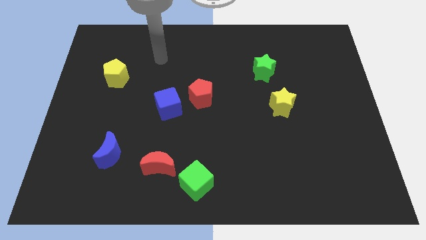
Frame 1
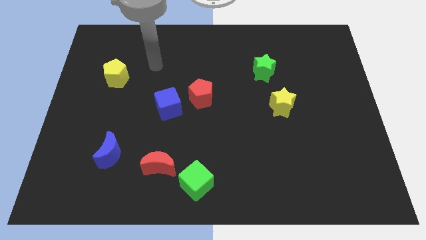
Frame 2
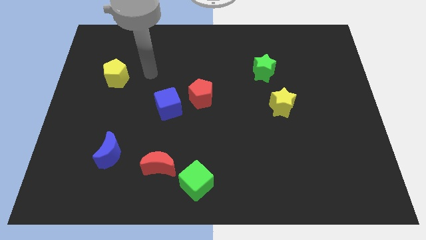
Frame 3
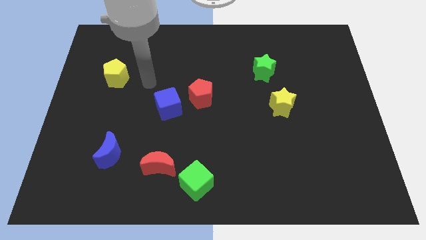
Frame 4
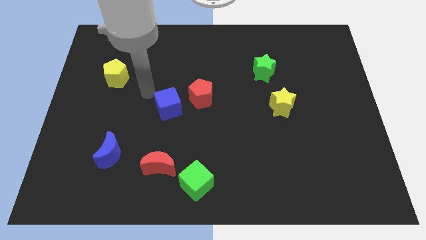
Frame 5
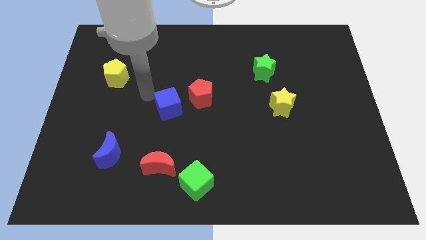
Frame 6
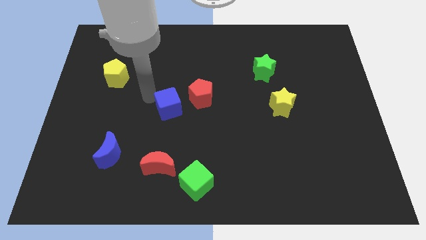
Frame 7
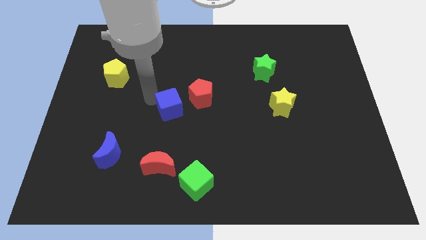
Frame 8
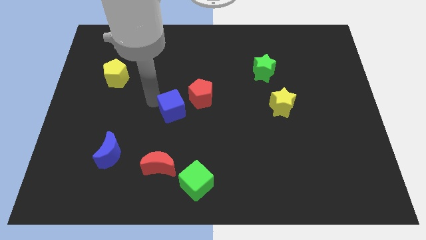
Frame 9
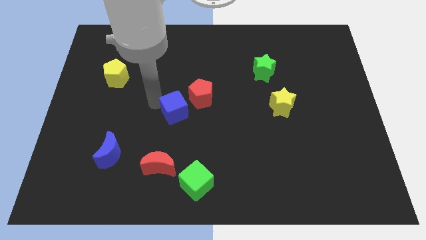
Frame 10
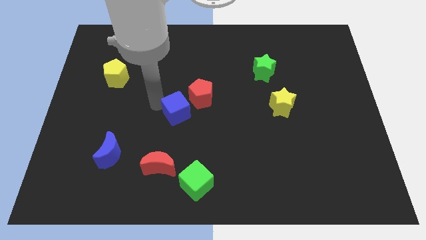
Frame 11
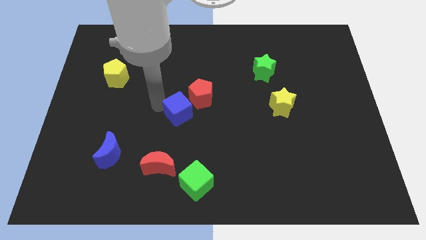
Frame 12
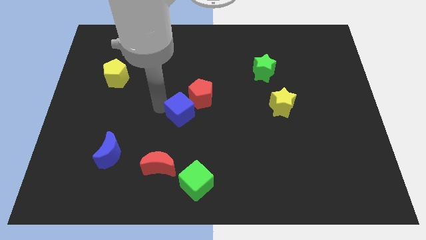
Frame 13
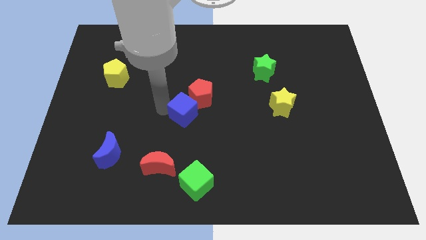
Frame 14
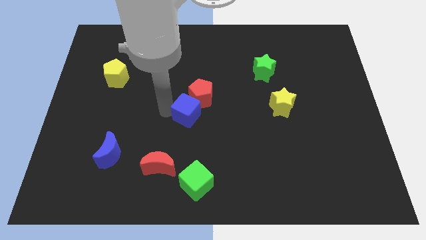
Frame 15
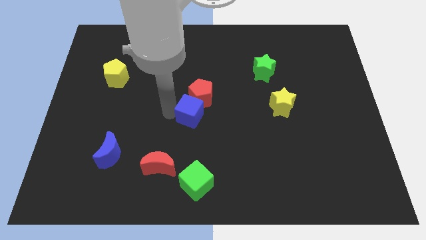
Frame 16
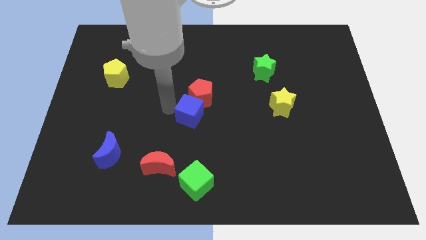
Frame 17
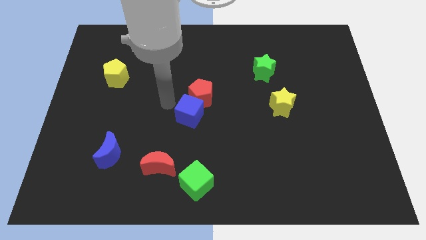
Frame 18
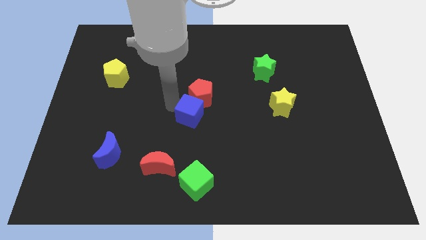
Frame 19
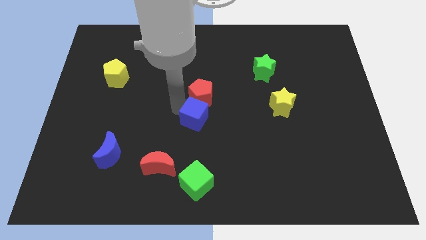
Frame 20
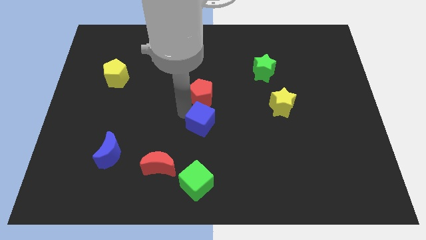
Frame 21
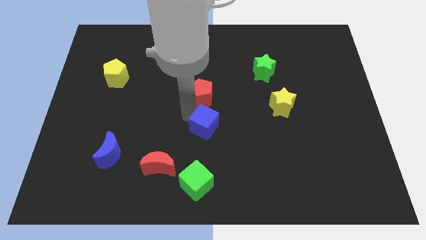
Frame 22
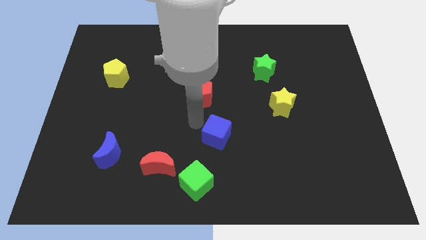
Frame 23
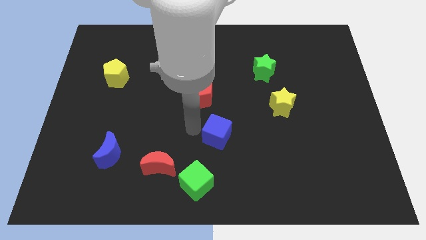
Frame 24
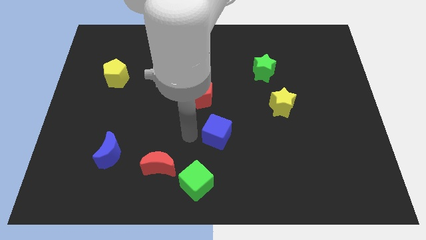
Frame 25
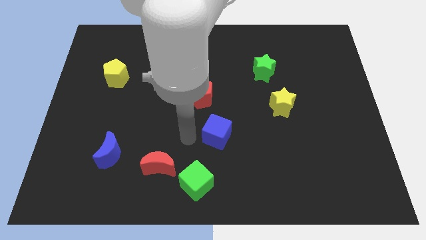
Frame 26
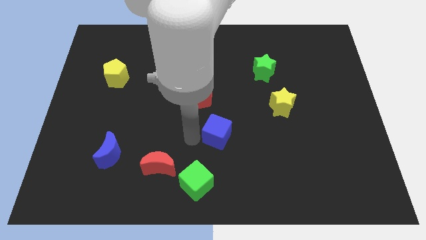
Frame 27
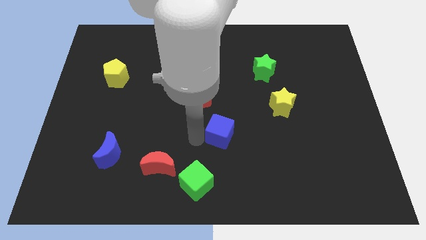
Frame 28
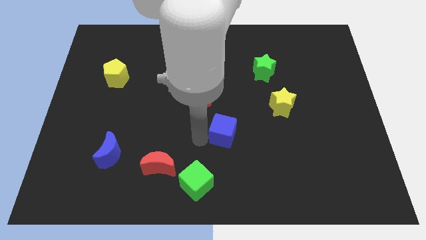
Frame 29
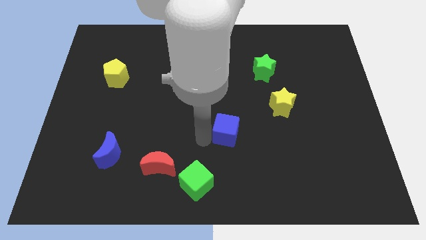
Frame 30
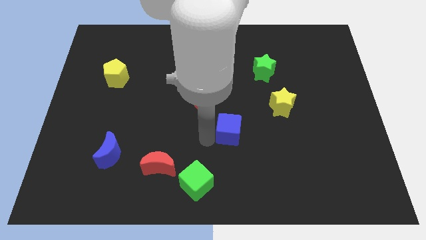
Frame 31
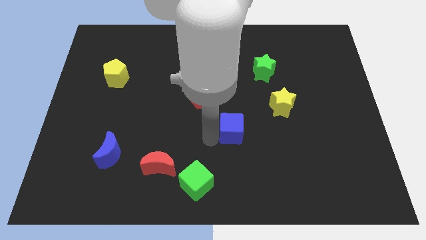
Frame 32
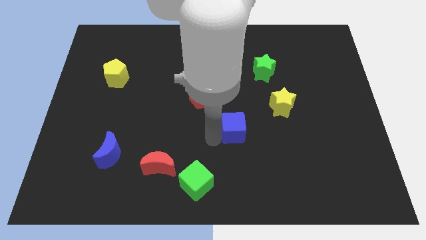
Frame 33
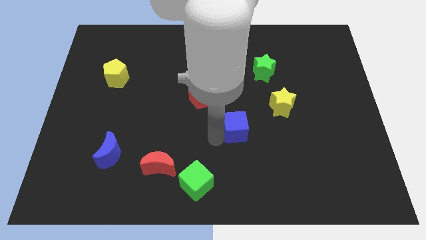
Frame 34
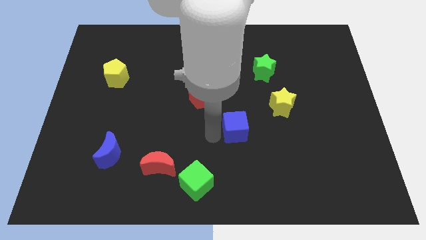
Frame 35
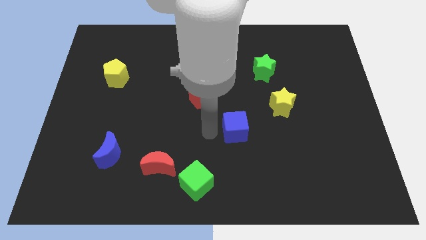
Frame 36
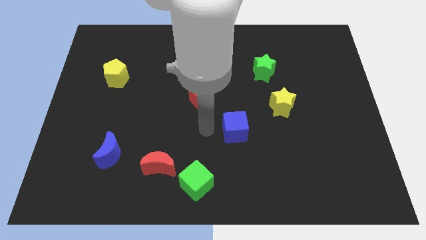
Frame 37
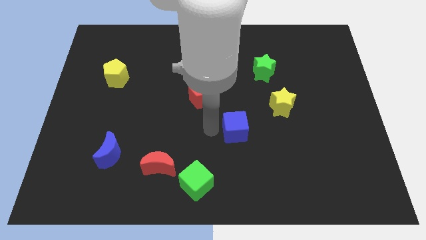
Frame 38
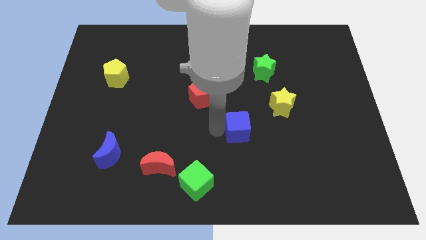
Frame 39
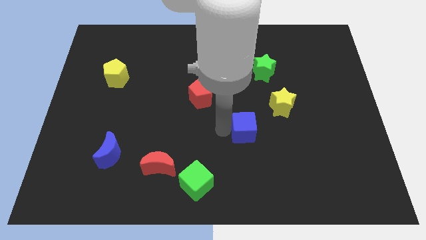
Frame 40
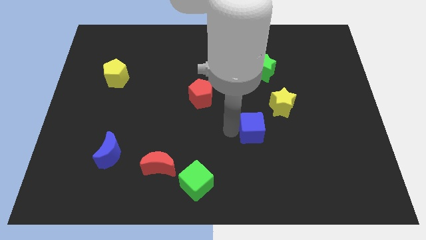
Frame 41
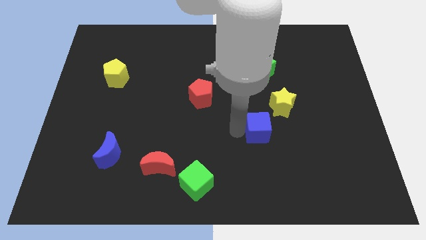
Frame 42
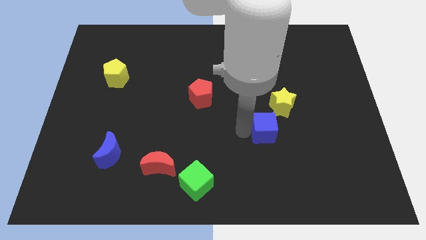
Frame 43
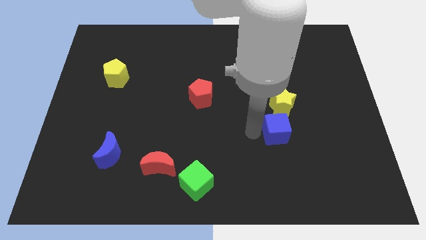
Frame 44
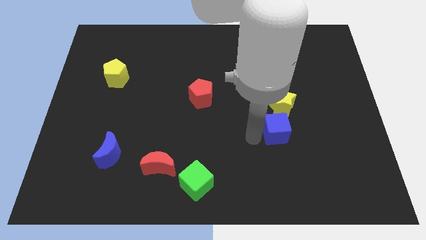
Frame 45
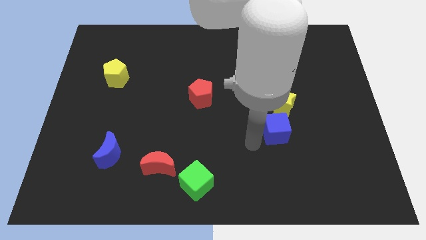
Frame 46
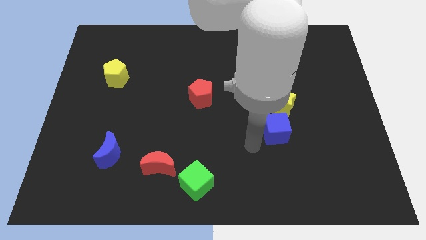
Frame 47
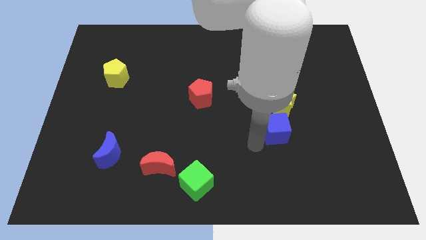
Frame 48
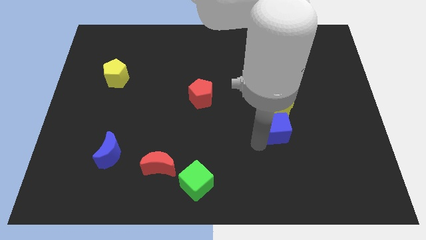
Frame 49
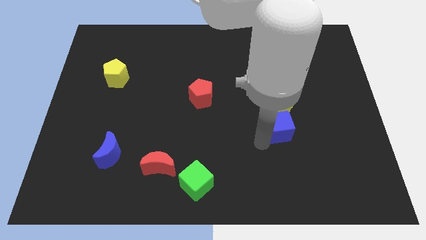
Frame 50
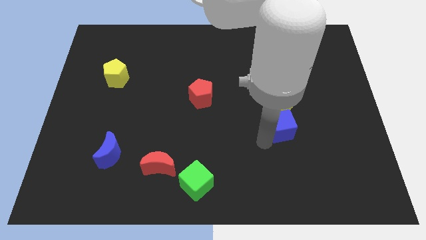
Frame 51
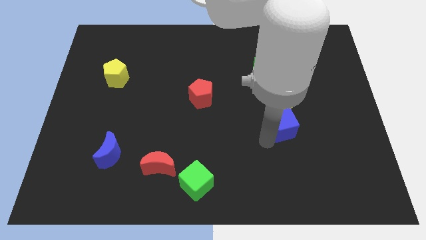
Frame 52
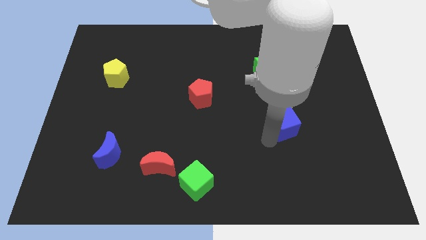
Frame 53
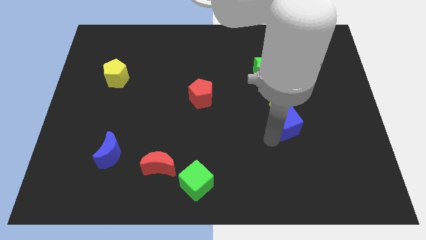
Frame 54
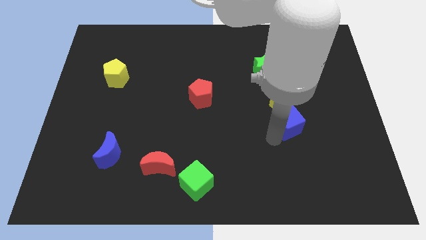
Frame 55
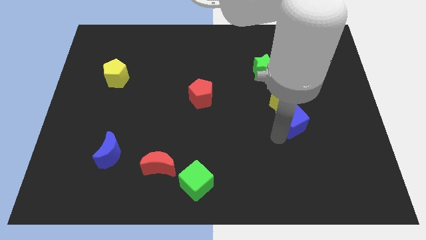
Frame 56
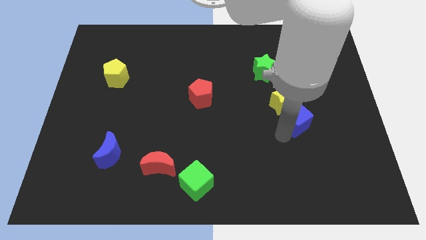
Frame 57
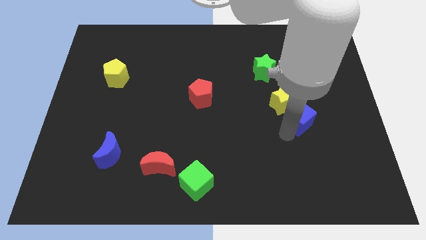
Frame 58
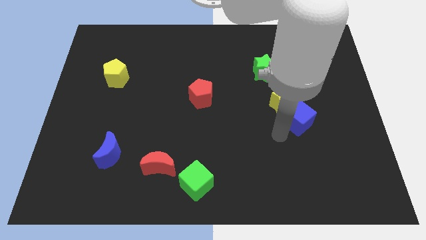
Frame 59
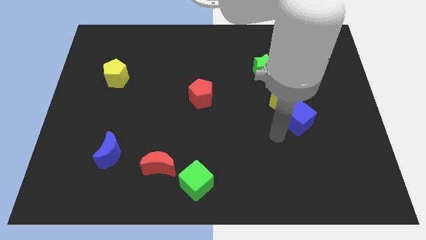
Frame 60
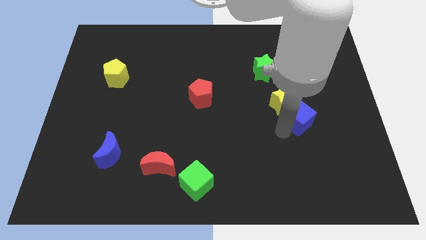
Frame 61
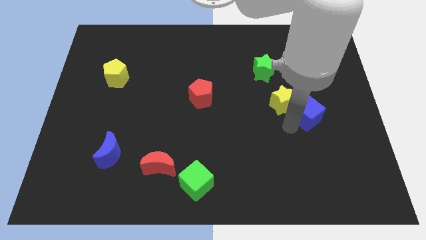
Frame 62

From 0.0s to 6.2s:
put the blue cube to the right side of the yellow star

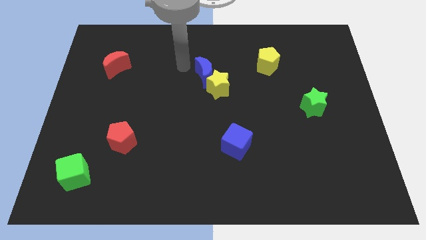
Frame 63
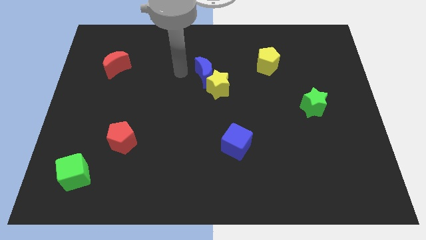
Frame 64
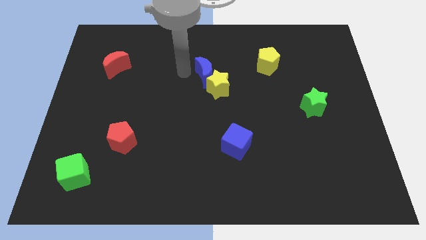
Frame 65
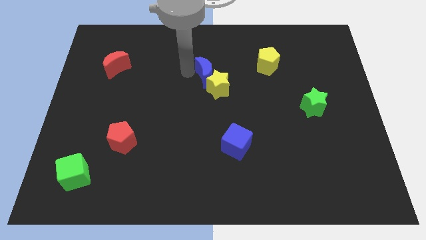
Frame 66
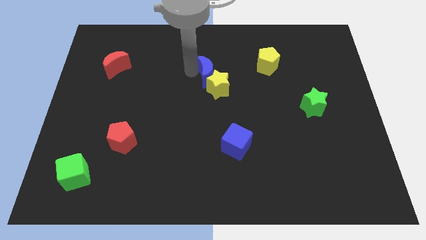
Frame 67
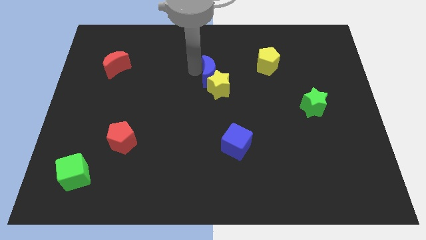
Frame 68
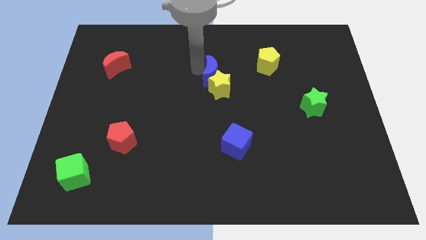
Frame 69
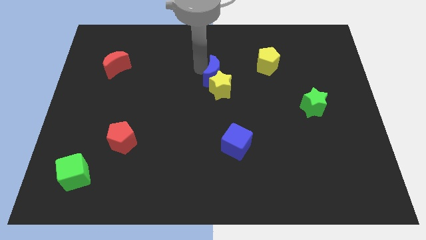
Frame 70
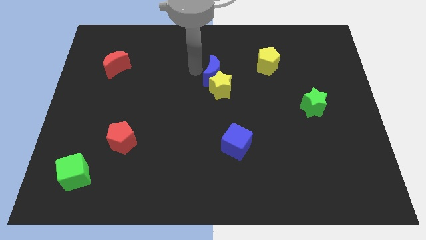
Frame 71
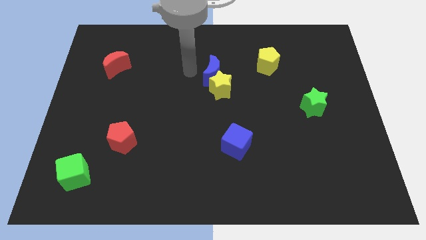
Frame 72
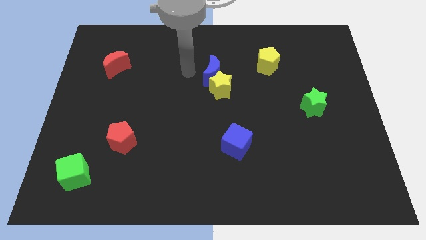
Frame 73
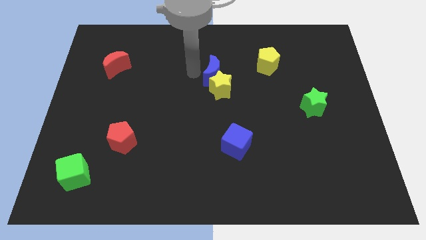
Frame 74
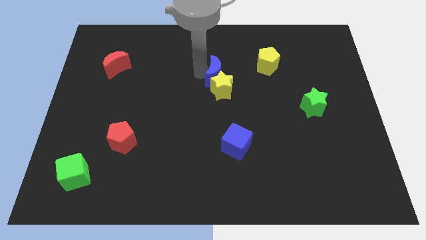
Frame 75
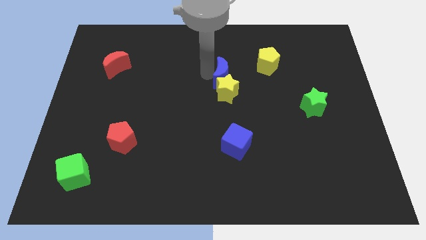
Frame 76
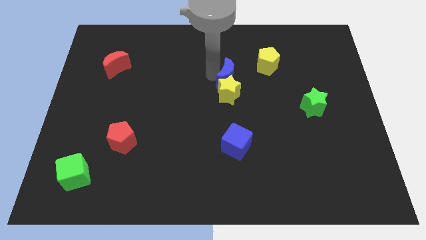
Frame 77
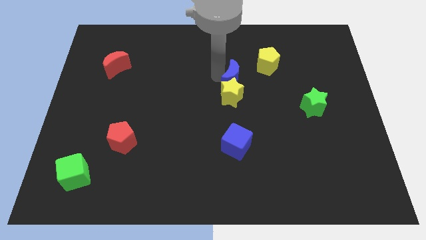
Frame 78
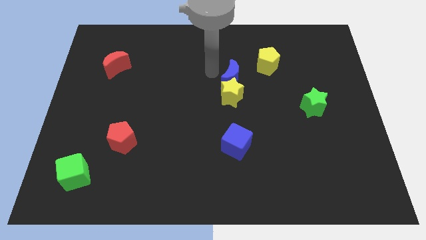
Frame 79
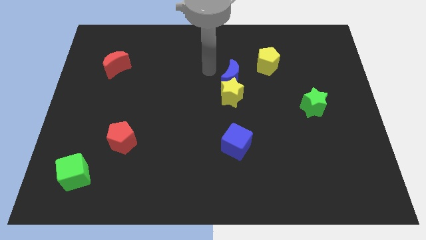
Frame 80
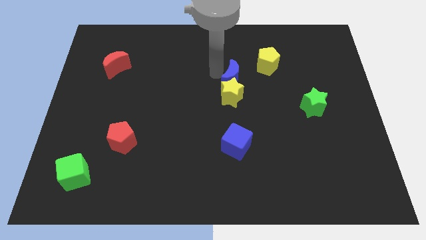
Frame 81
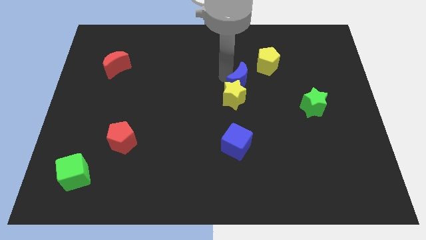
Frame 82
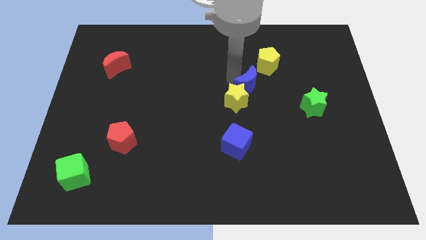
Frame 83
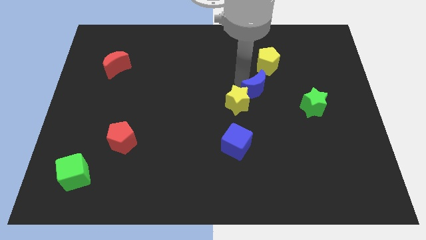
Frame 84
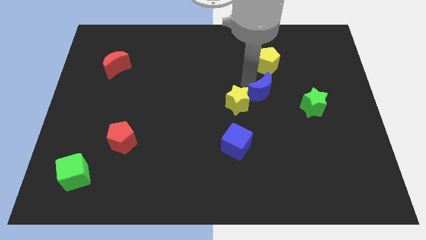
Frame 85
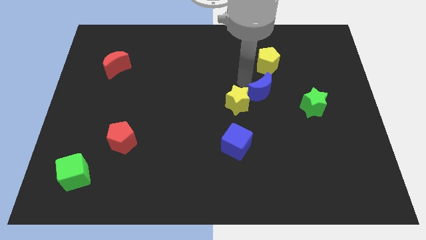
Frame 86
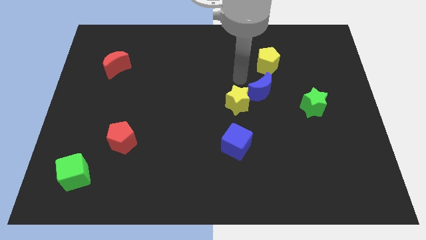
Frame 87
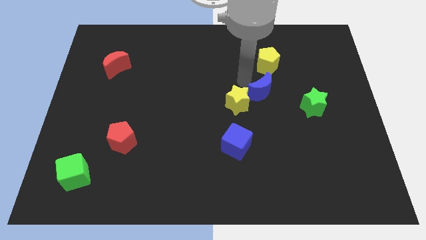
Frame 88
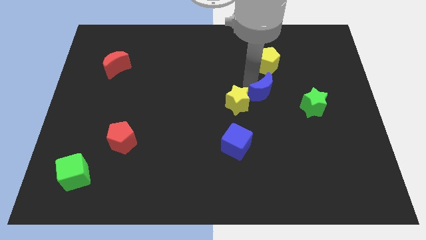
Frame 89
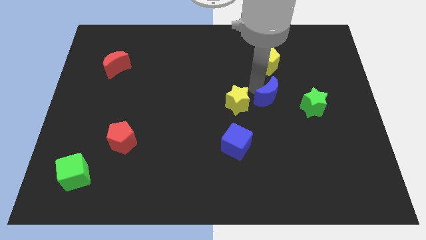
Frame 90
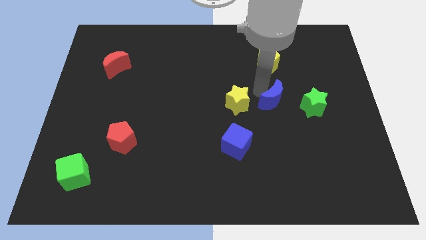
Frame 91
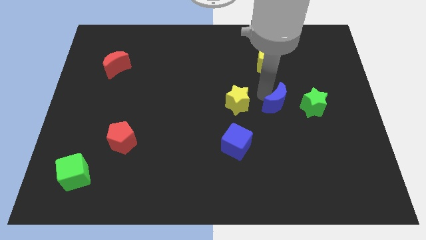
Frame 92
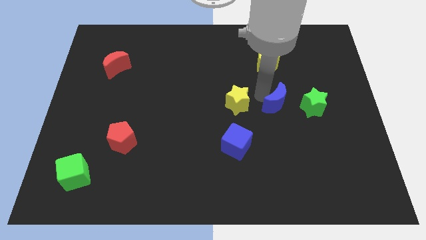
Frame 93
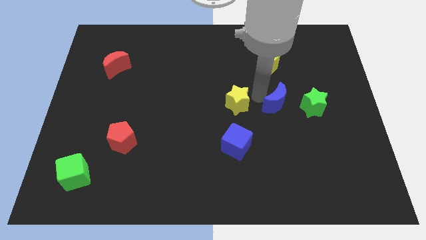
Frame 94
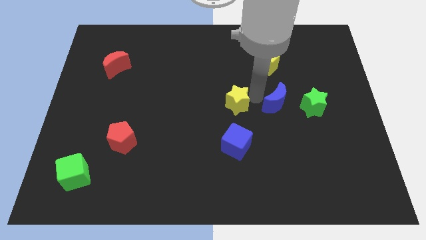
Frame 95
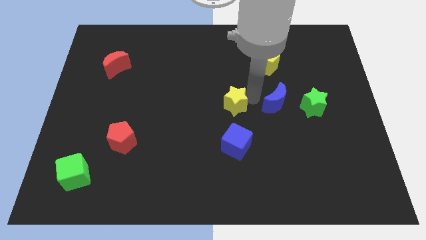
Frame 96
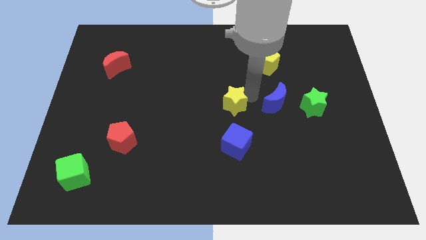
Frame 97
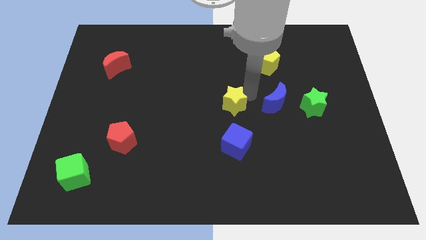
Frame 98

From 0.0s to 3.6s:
put the blue moon just right of the yellow star
